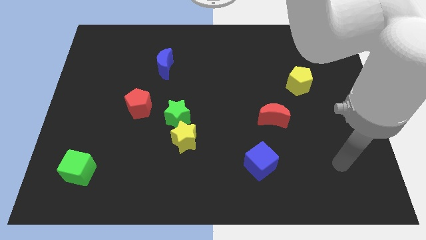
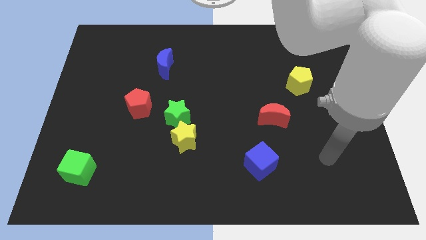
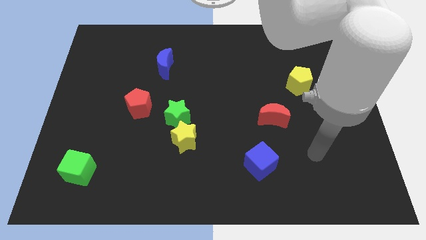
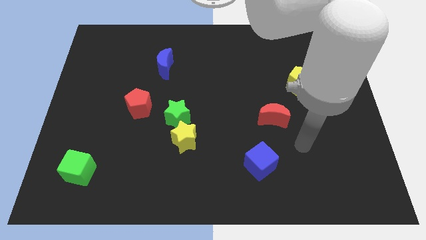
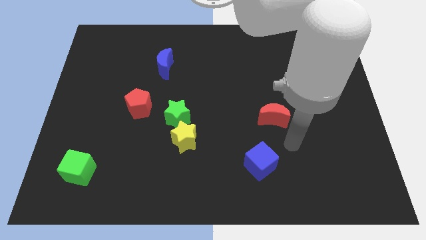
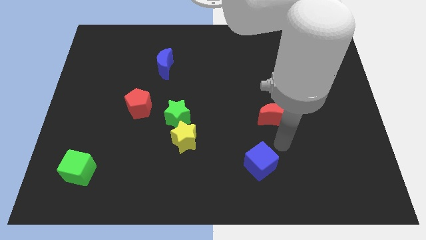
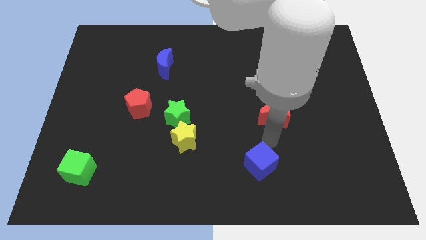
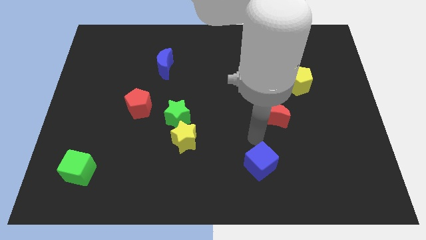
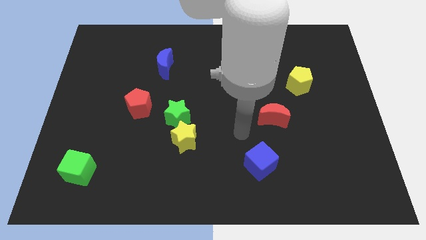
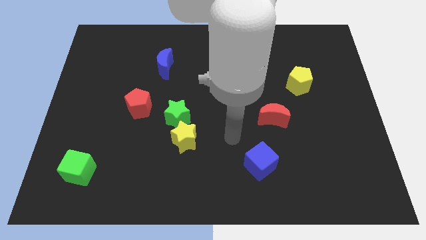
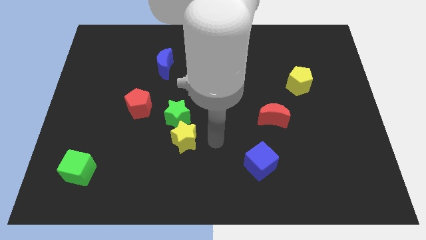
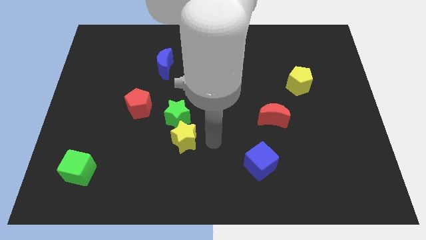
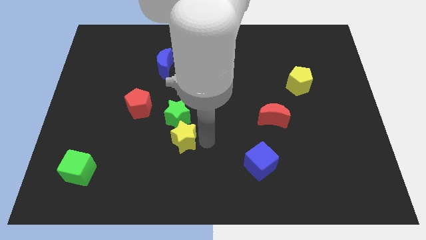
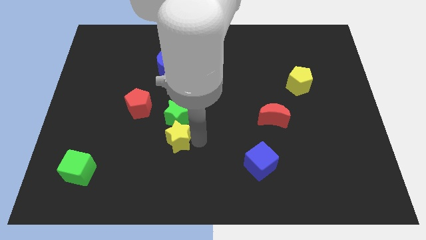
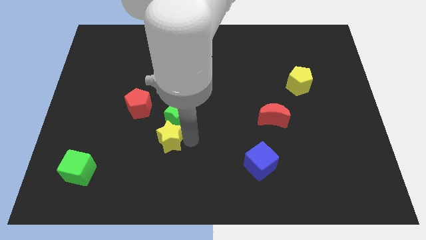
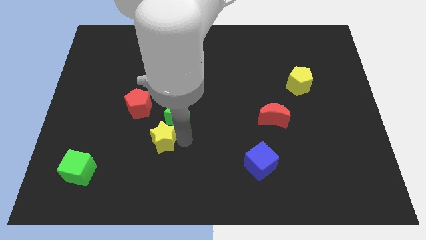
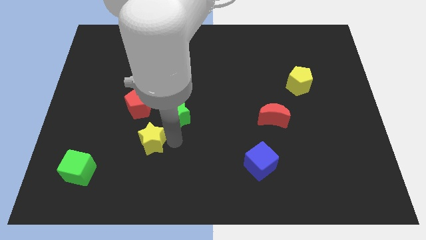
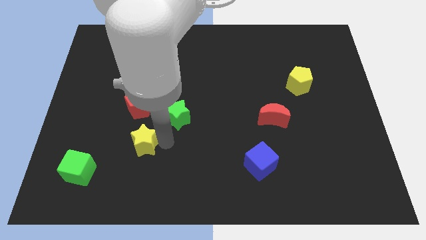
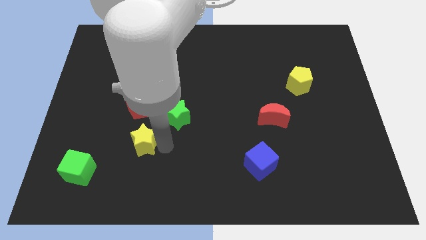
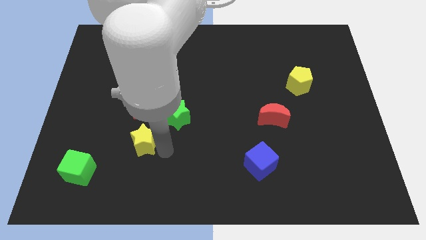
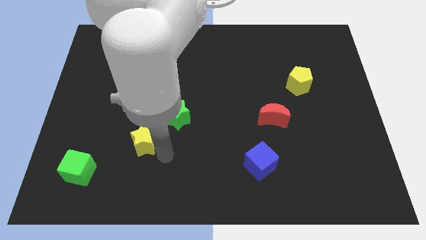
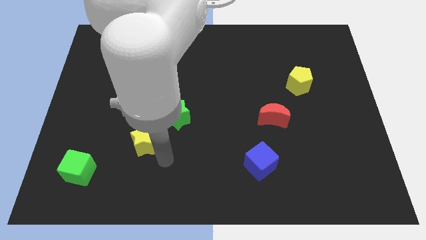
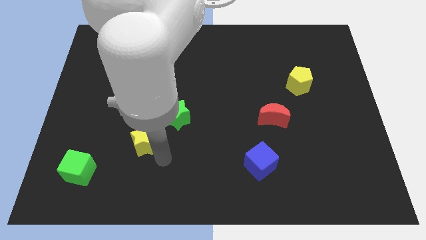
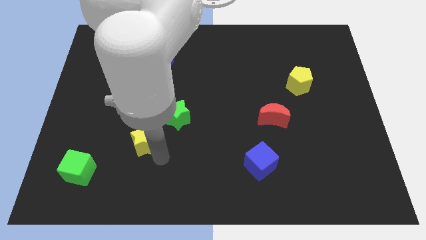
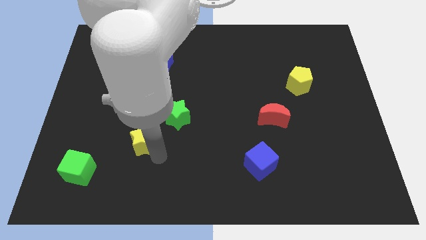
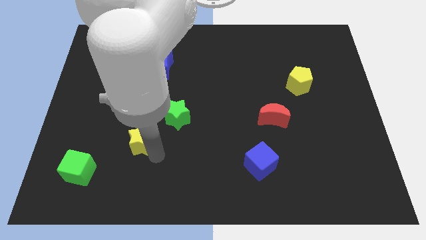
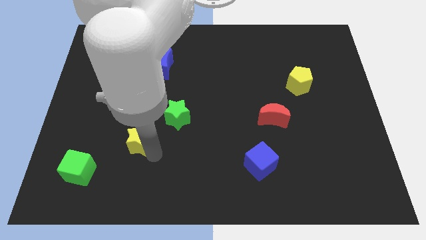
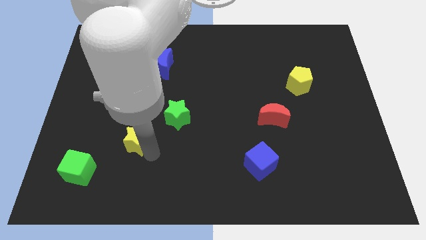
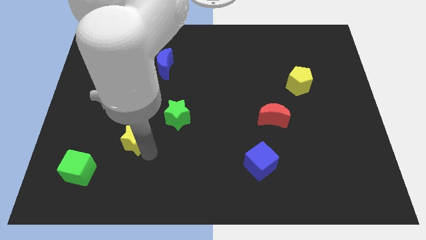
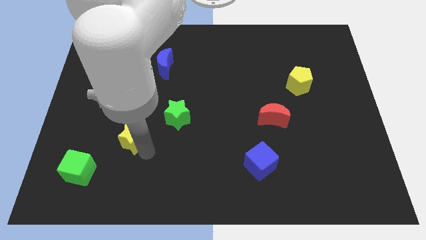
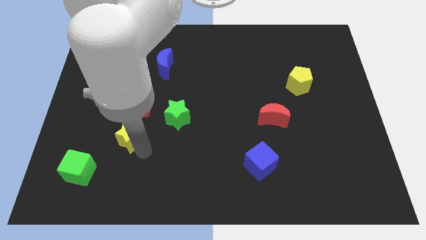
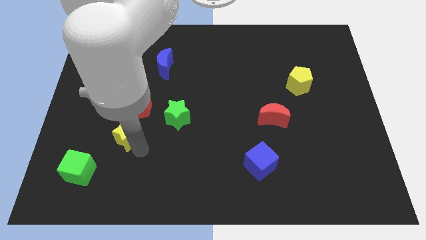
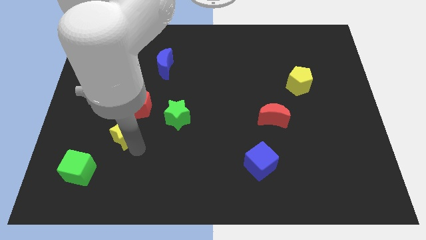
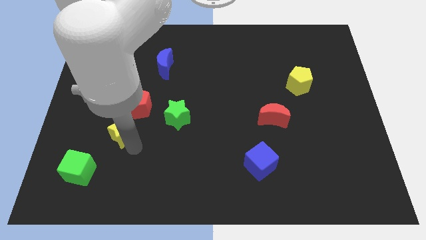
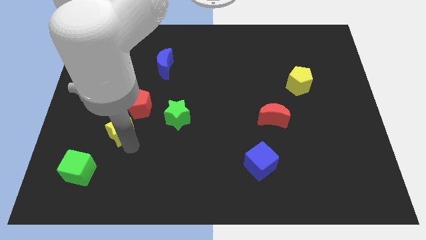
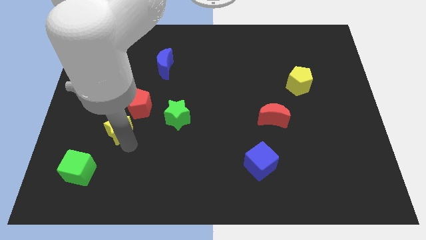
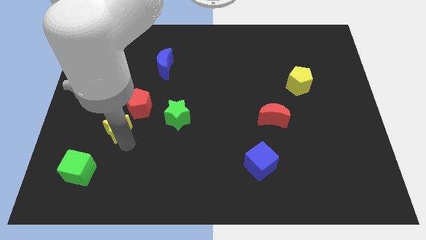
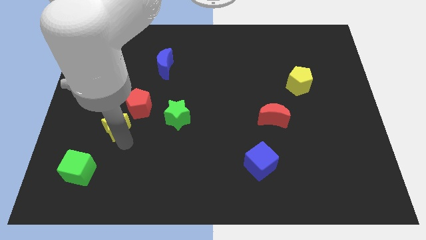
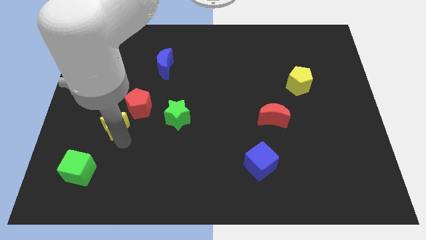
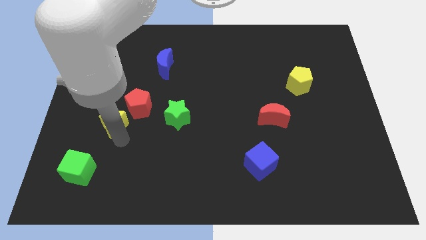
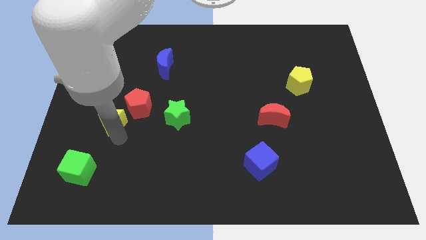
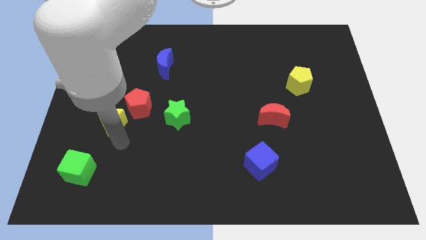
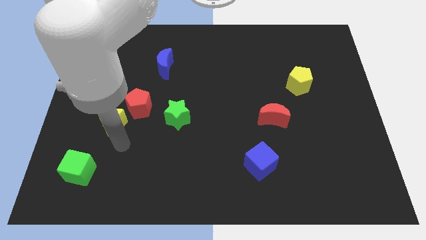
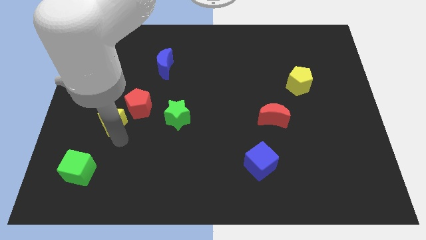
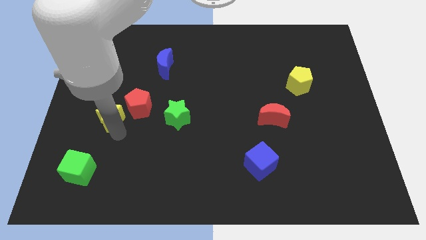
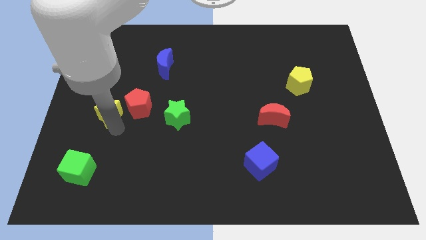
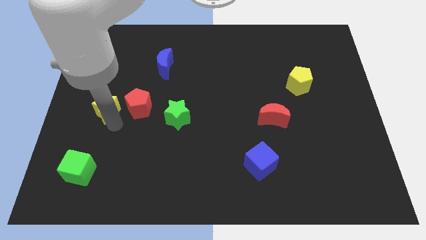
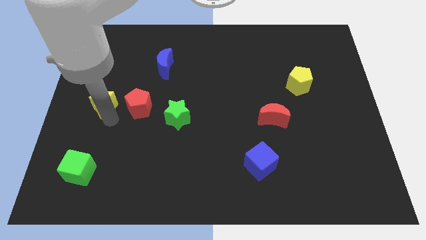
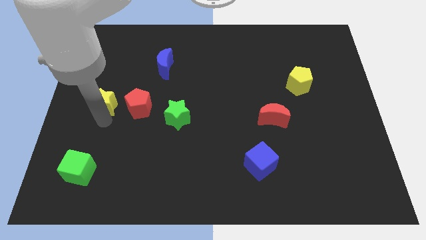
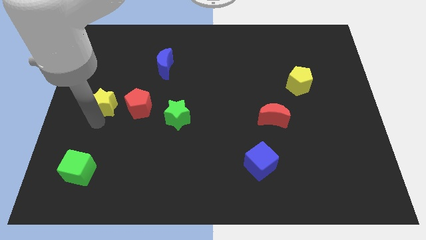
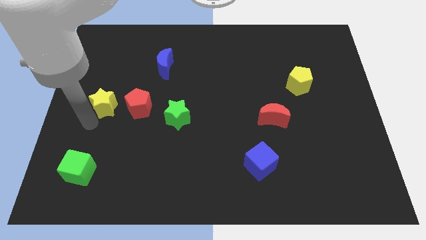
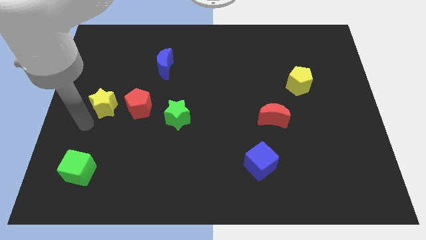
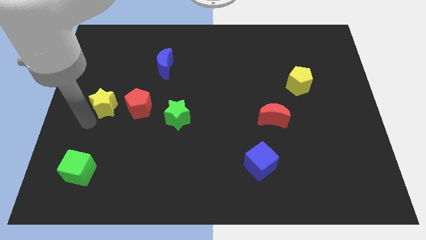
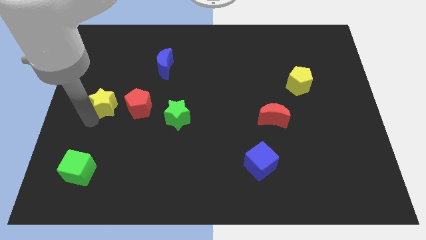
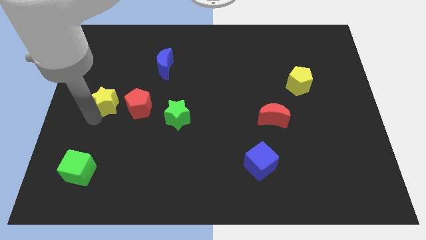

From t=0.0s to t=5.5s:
slide the yellow star to the top left of the red pentagon

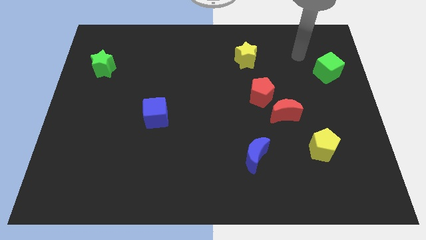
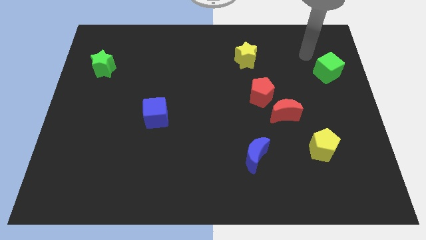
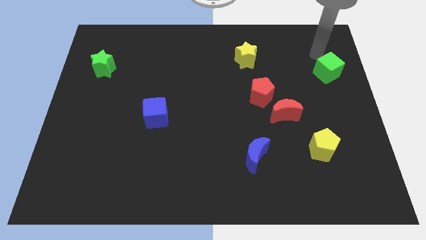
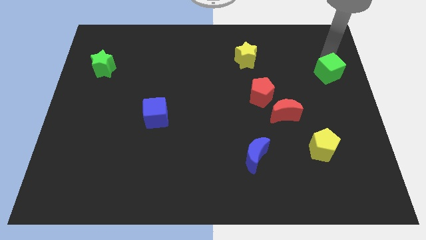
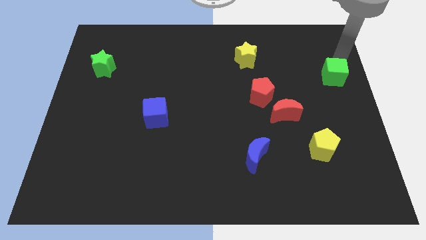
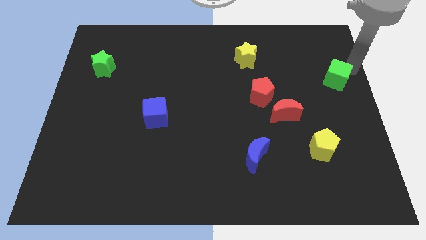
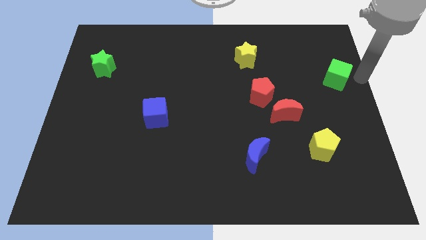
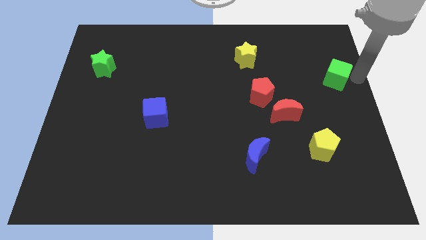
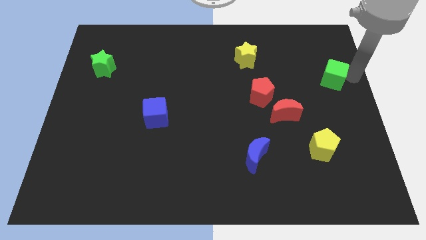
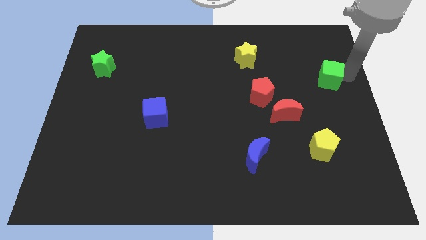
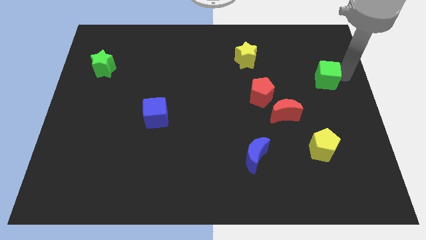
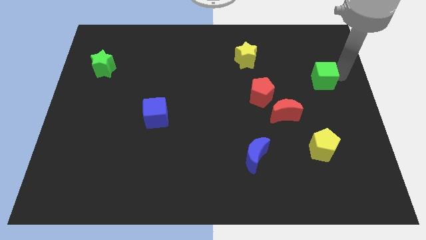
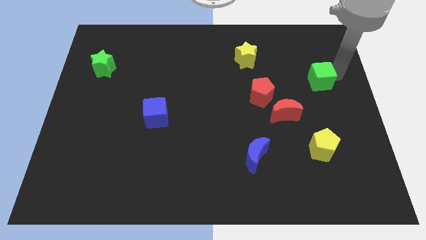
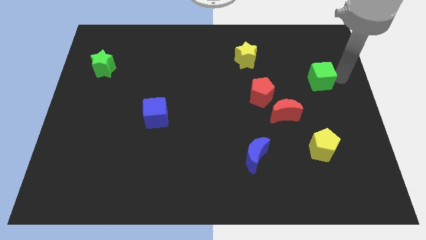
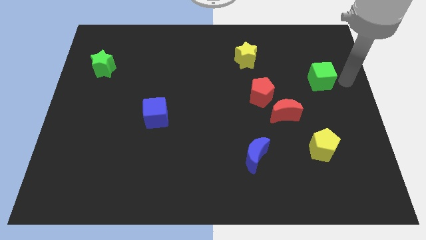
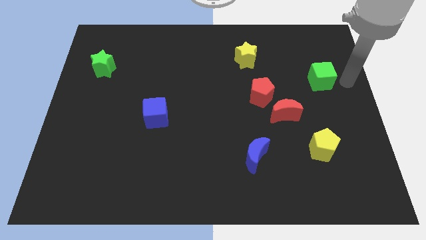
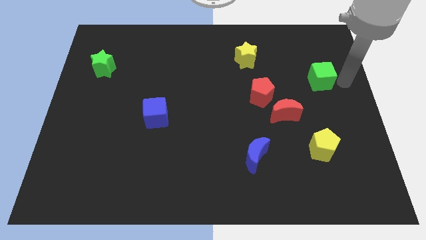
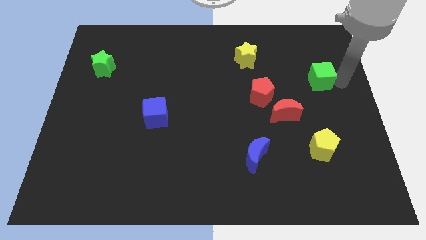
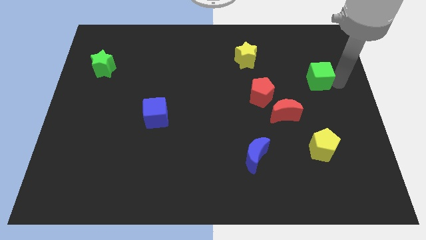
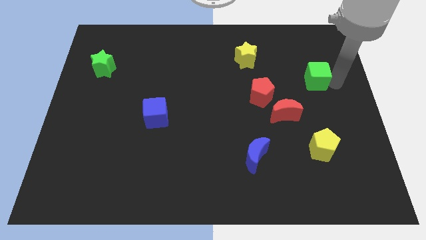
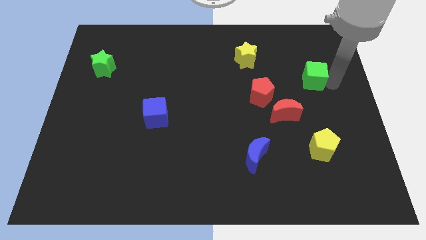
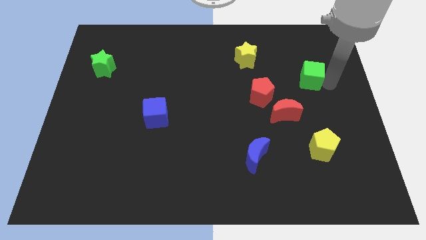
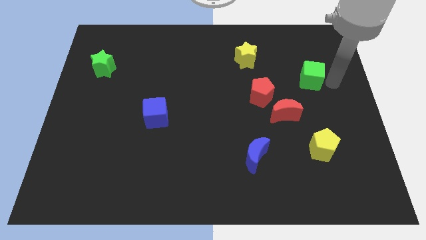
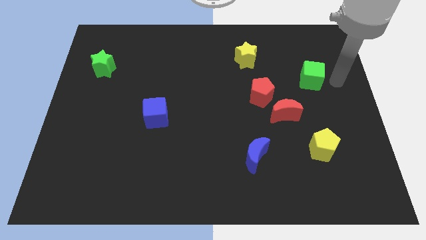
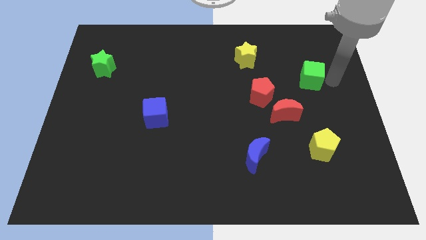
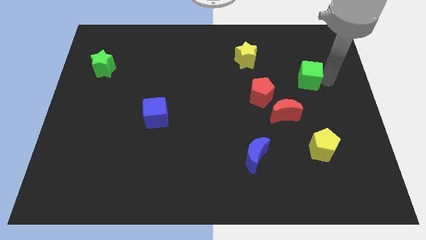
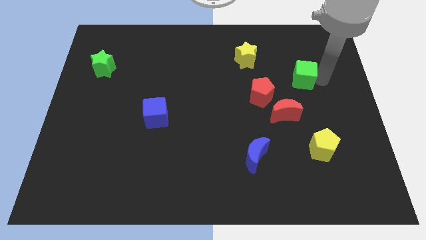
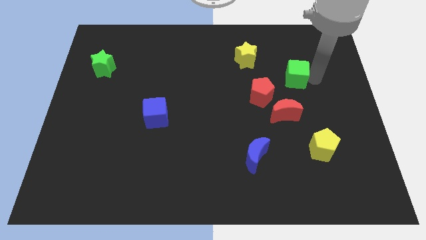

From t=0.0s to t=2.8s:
put the green cube to the top of the red moon
